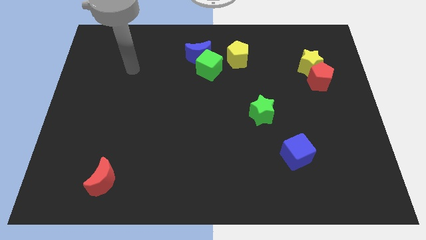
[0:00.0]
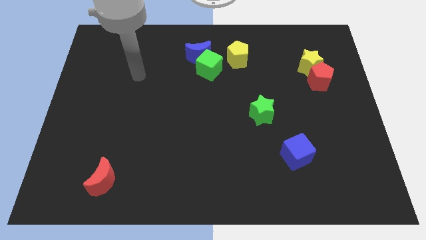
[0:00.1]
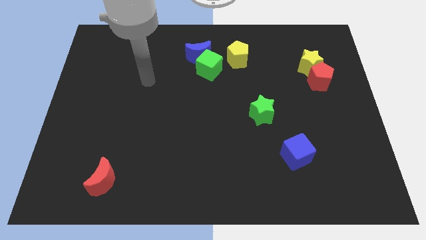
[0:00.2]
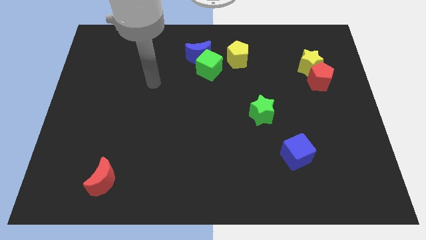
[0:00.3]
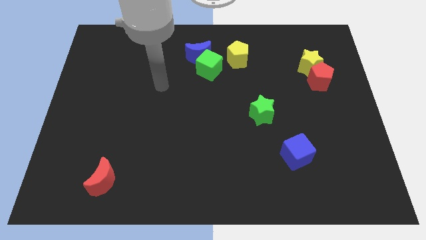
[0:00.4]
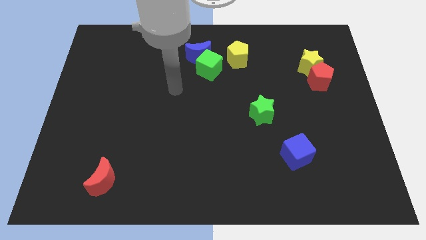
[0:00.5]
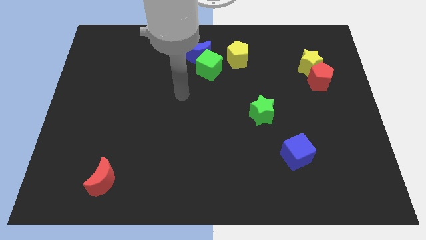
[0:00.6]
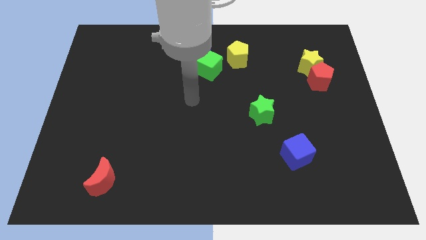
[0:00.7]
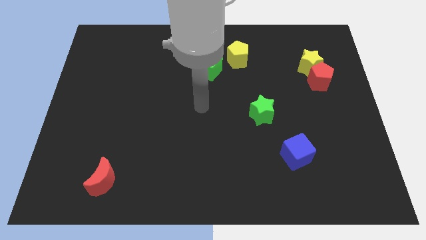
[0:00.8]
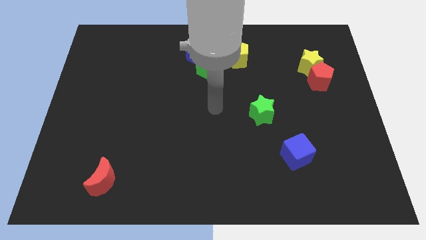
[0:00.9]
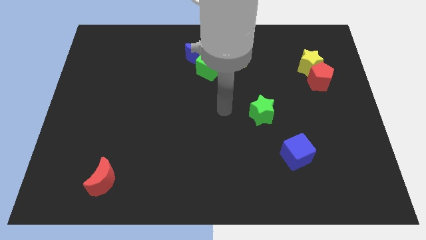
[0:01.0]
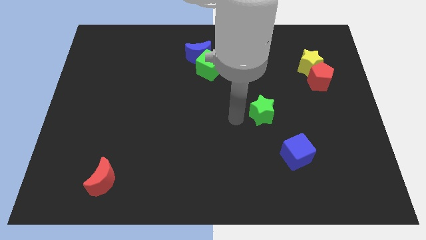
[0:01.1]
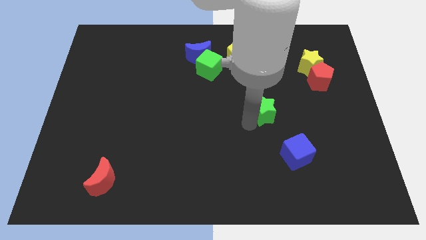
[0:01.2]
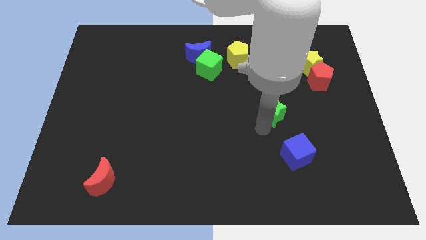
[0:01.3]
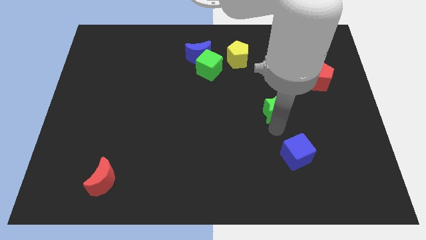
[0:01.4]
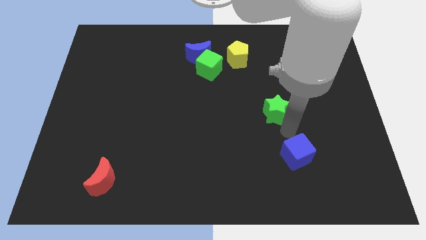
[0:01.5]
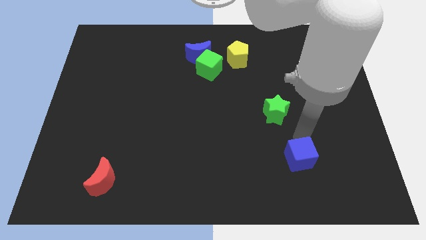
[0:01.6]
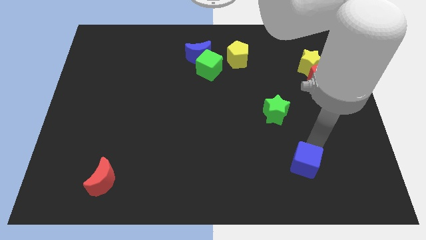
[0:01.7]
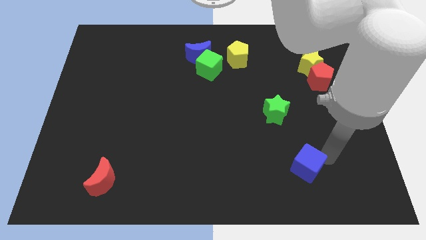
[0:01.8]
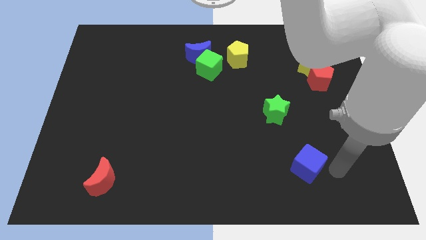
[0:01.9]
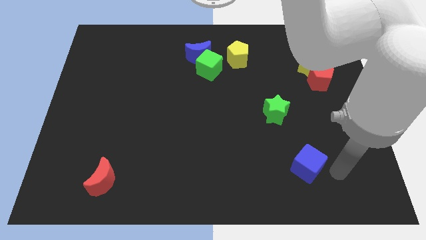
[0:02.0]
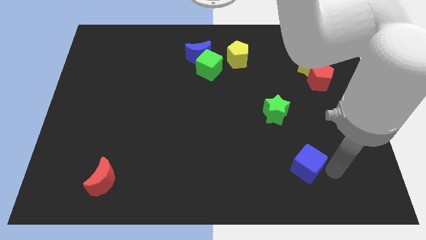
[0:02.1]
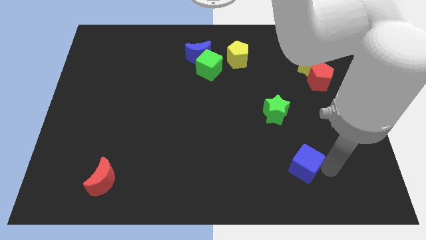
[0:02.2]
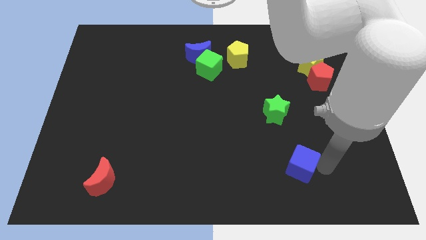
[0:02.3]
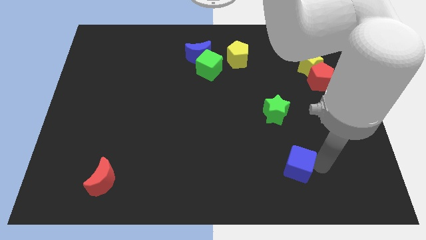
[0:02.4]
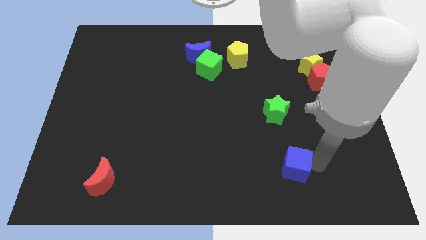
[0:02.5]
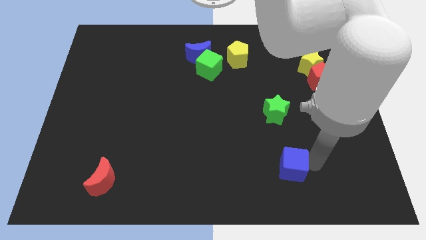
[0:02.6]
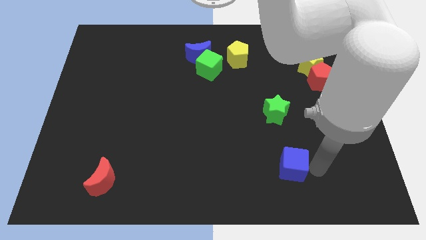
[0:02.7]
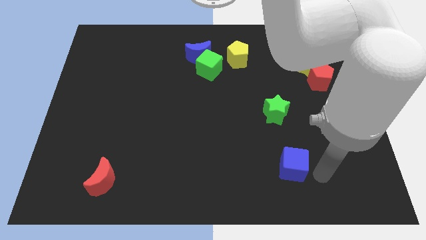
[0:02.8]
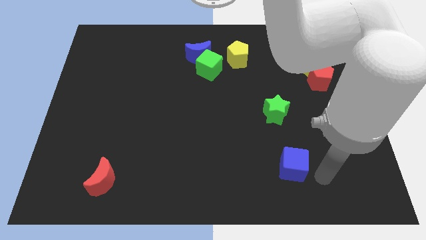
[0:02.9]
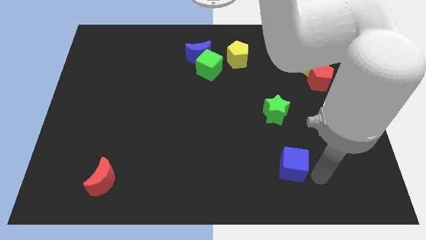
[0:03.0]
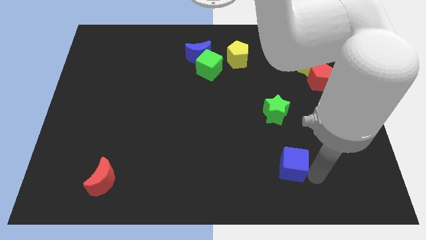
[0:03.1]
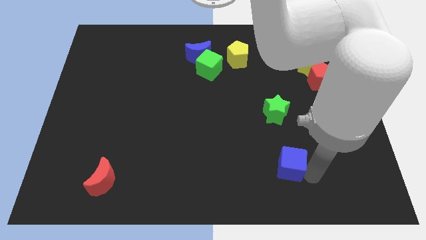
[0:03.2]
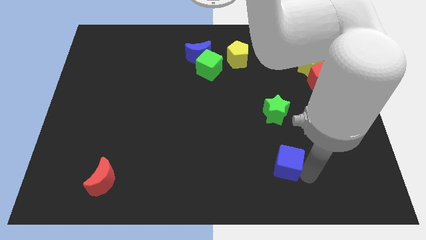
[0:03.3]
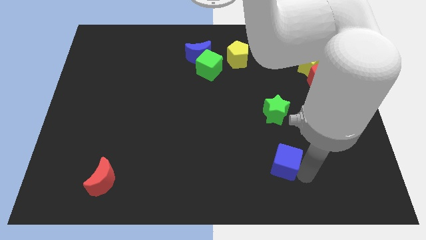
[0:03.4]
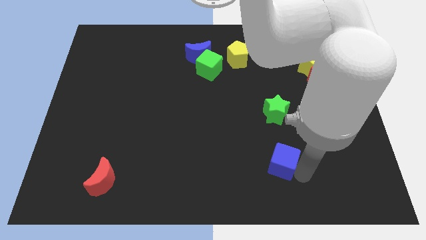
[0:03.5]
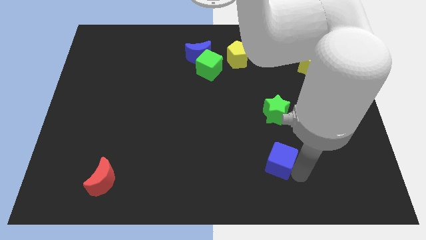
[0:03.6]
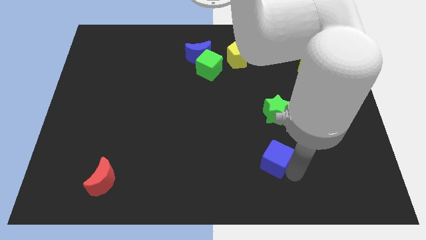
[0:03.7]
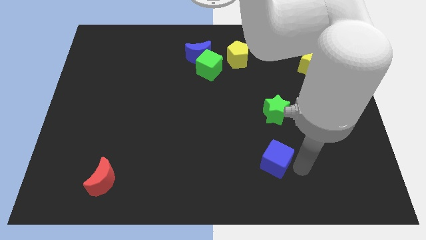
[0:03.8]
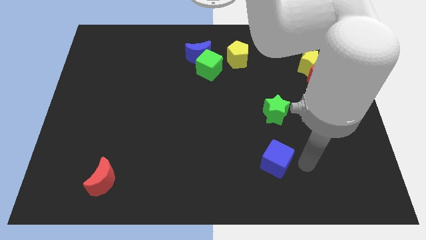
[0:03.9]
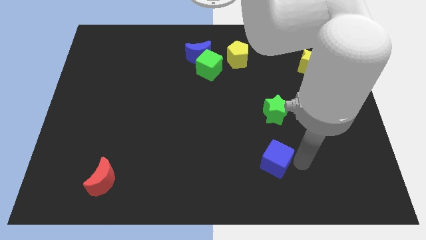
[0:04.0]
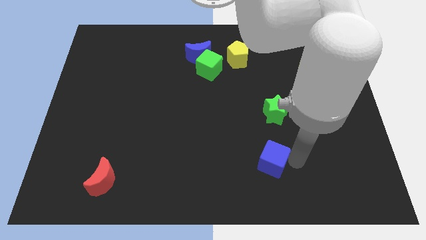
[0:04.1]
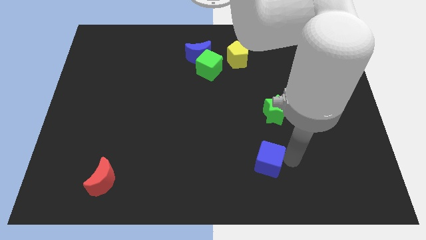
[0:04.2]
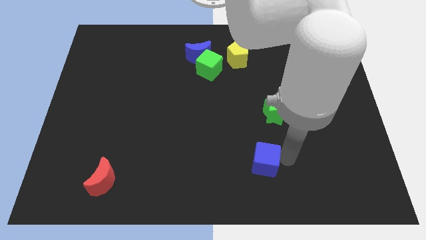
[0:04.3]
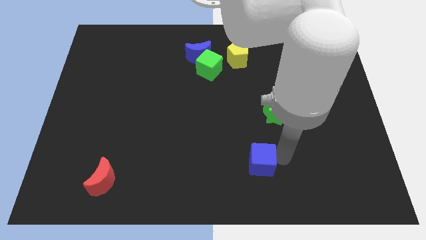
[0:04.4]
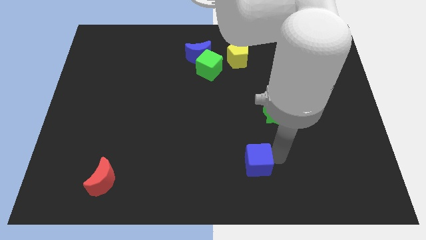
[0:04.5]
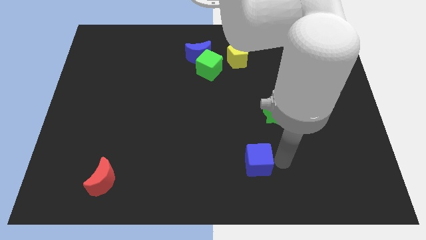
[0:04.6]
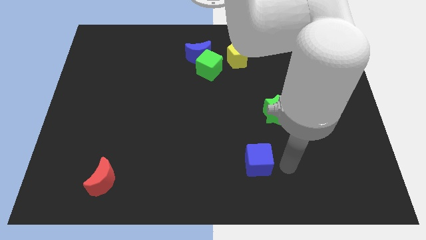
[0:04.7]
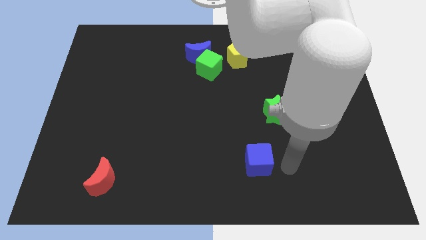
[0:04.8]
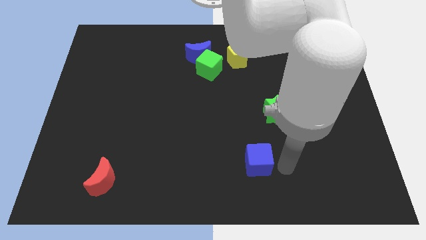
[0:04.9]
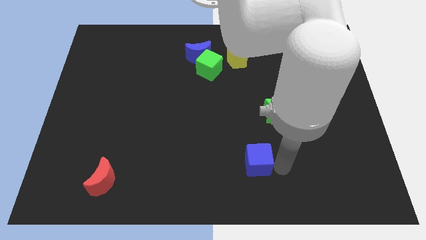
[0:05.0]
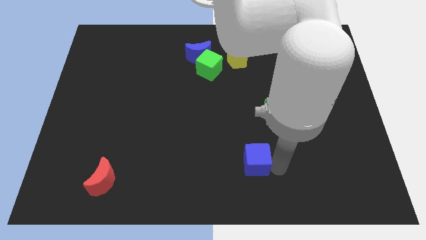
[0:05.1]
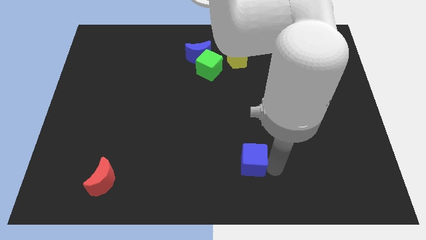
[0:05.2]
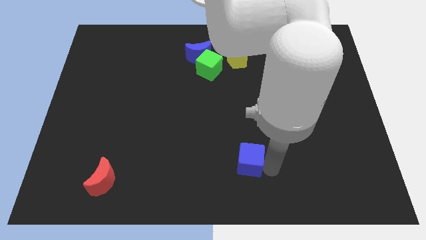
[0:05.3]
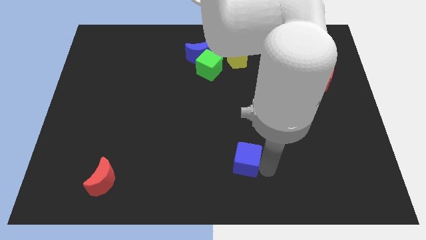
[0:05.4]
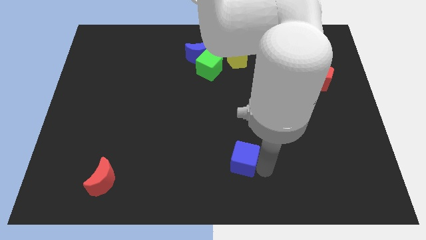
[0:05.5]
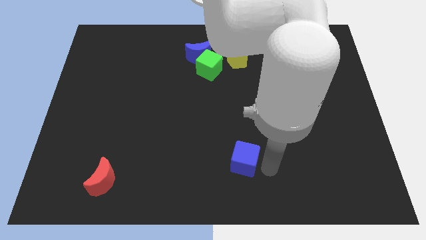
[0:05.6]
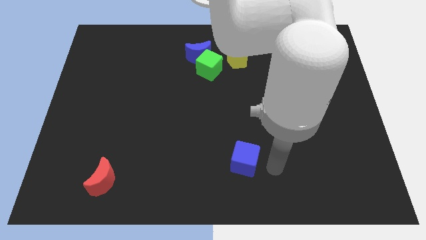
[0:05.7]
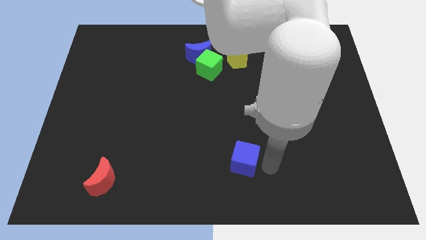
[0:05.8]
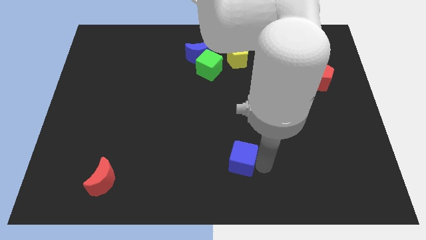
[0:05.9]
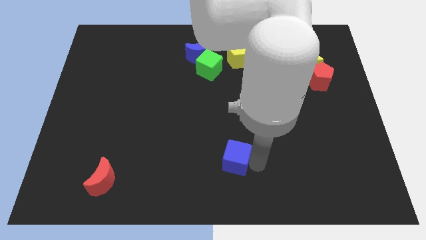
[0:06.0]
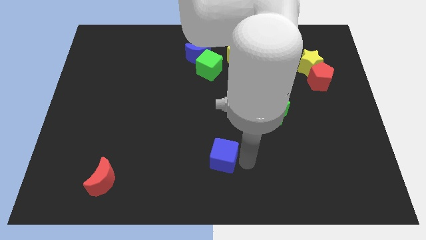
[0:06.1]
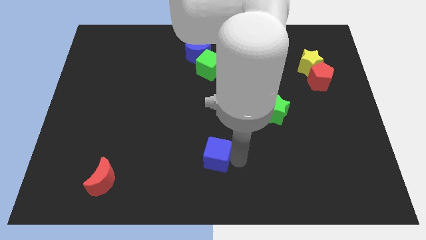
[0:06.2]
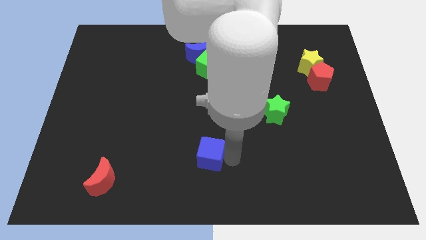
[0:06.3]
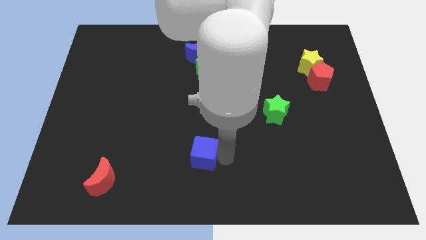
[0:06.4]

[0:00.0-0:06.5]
move the blue cube left

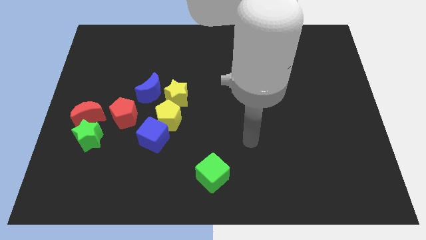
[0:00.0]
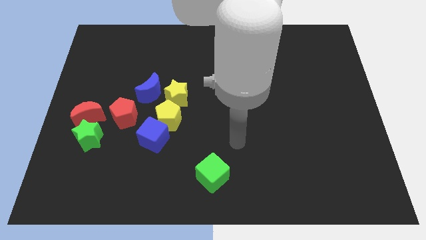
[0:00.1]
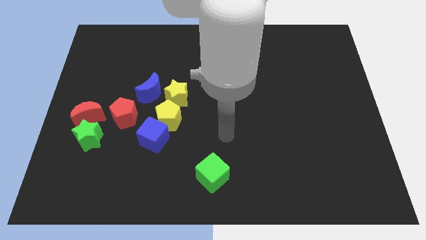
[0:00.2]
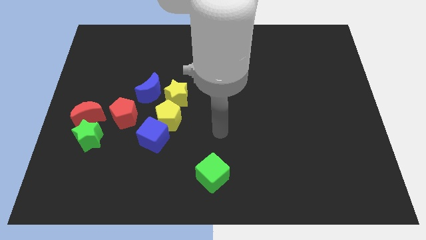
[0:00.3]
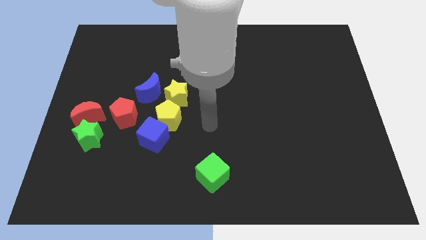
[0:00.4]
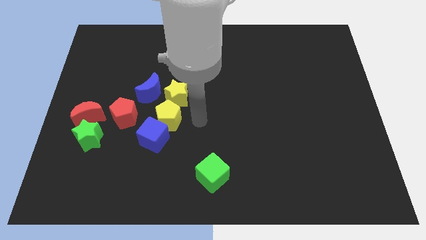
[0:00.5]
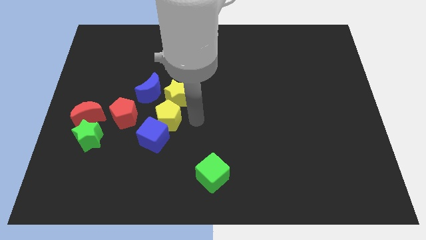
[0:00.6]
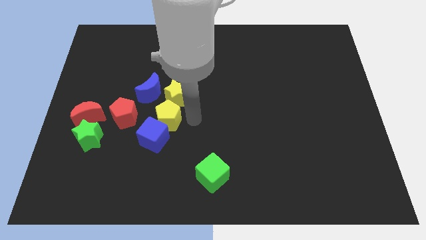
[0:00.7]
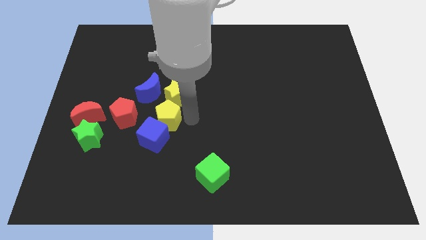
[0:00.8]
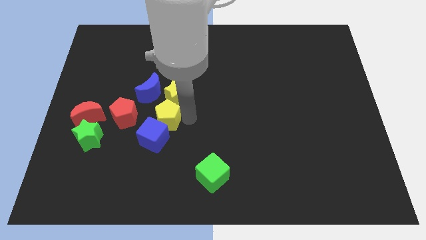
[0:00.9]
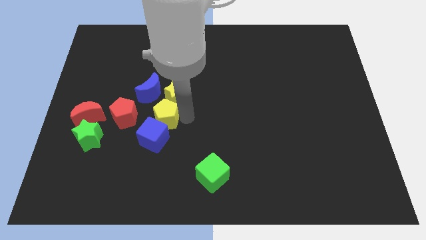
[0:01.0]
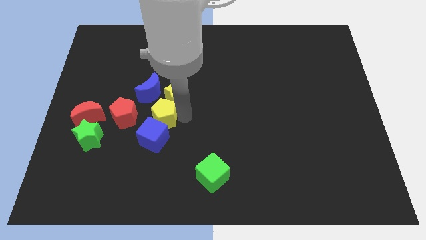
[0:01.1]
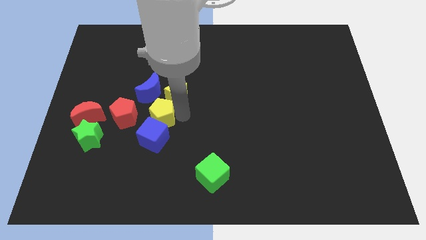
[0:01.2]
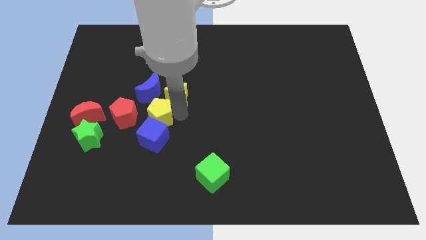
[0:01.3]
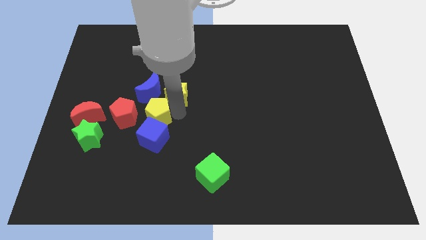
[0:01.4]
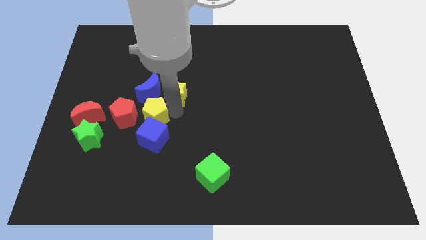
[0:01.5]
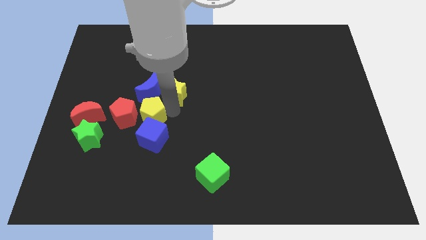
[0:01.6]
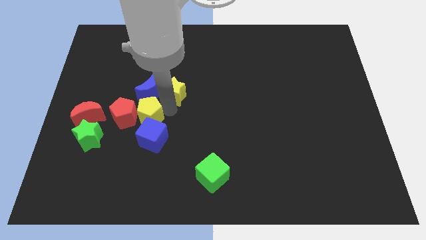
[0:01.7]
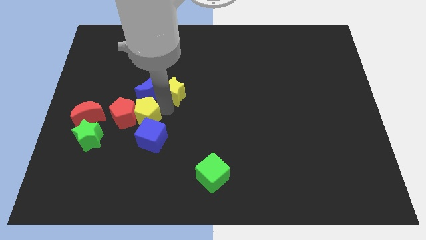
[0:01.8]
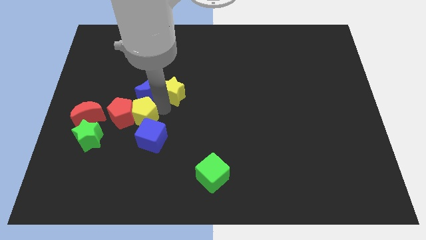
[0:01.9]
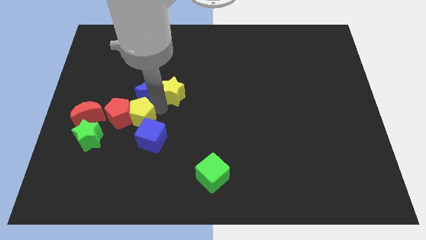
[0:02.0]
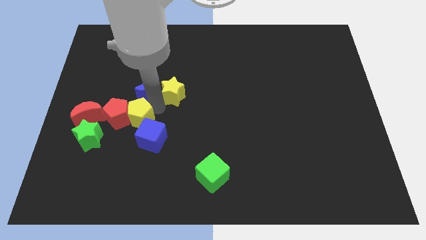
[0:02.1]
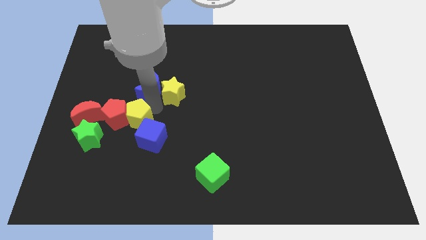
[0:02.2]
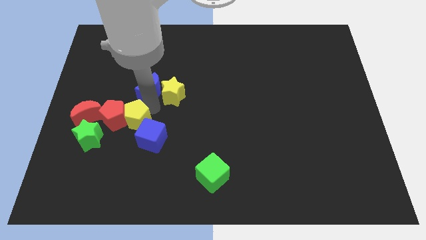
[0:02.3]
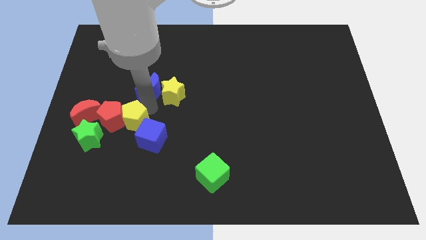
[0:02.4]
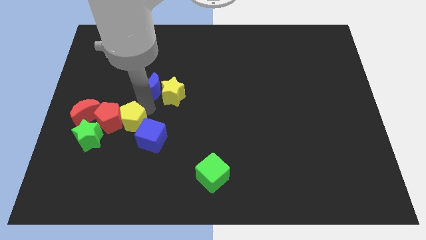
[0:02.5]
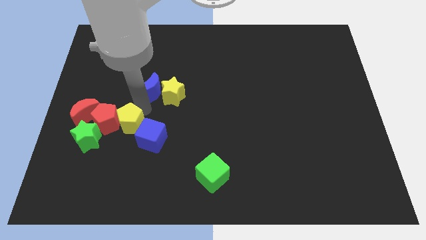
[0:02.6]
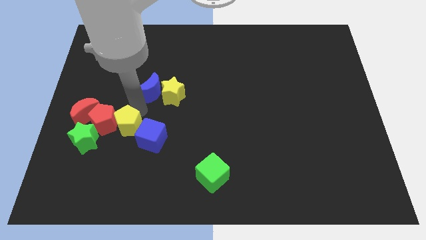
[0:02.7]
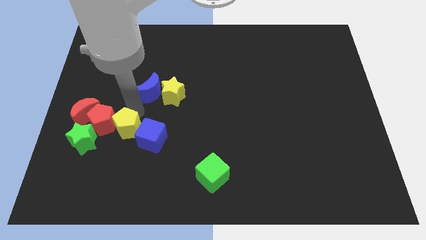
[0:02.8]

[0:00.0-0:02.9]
slightly slide the yellow pentagon downwards and then to the left
